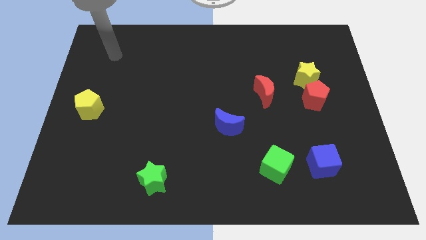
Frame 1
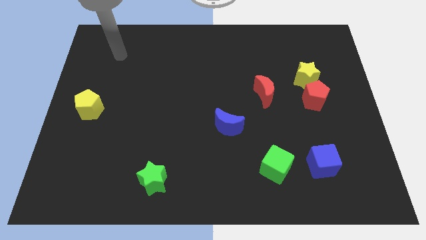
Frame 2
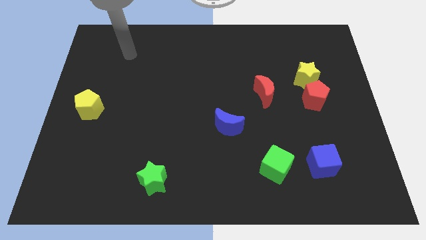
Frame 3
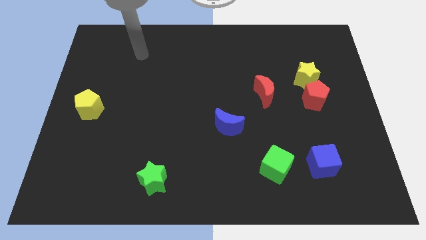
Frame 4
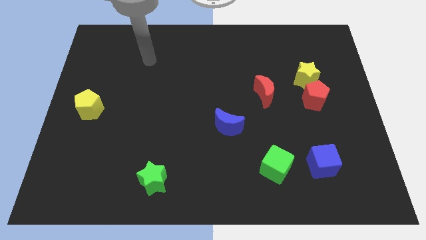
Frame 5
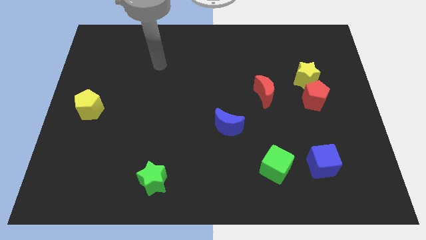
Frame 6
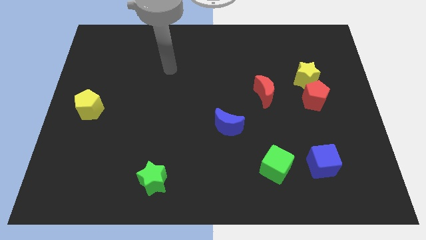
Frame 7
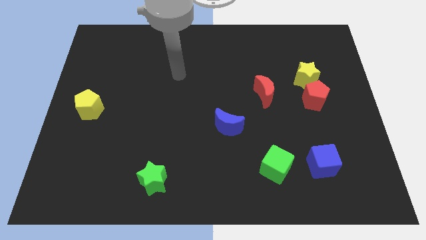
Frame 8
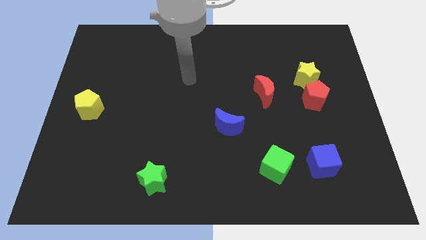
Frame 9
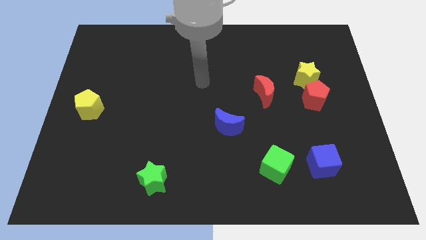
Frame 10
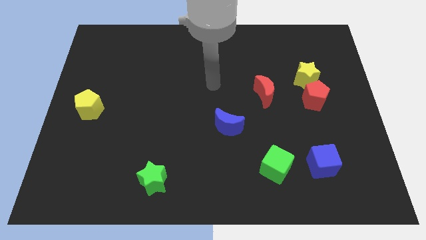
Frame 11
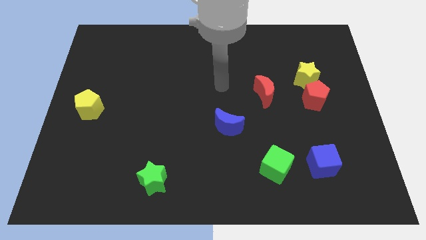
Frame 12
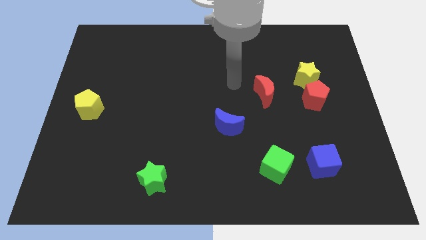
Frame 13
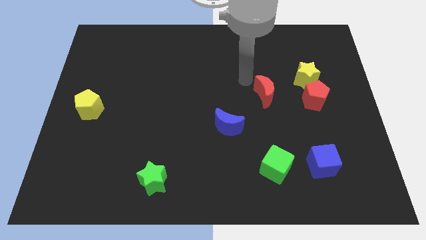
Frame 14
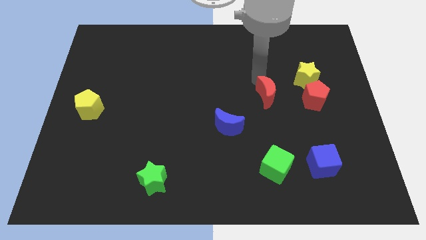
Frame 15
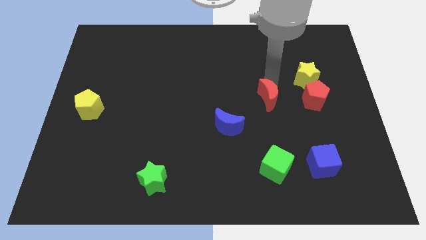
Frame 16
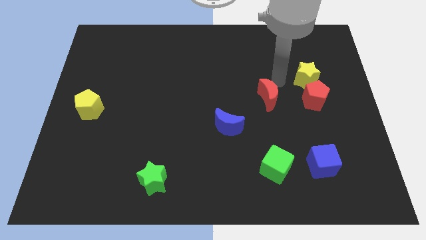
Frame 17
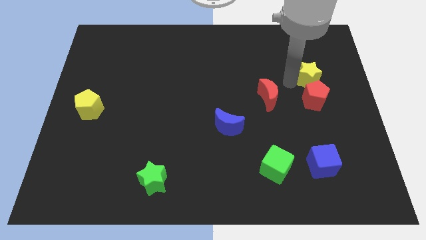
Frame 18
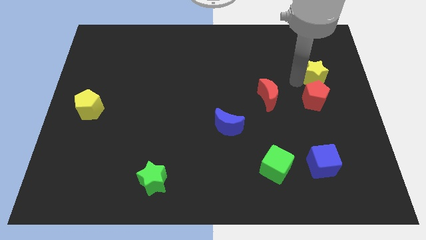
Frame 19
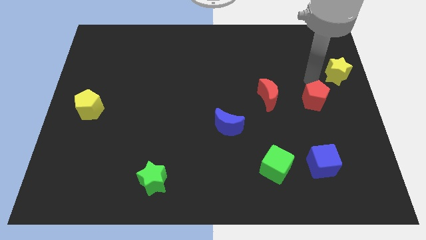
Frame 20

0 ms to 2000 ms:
pull the red pentagon apart from the yellow star

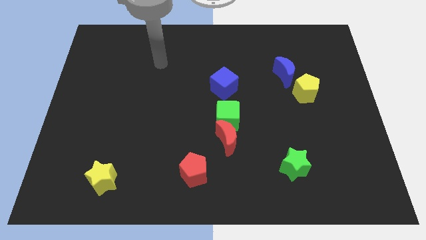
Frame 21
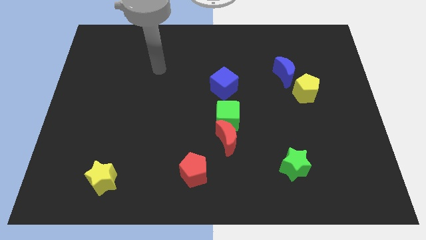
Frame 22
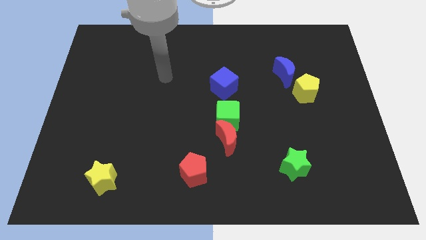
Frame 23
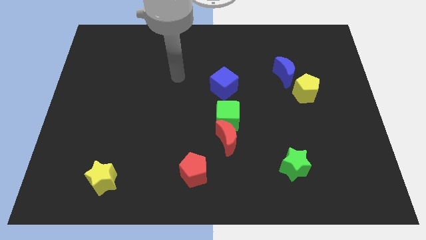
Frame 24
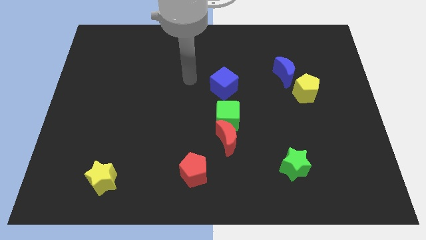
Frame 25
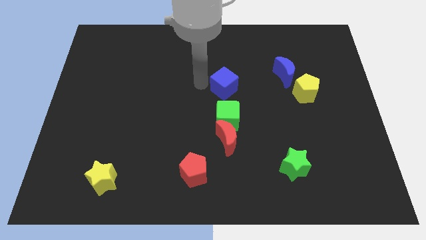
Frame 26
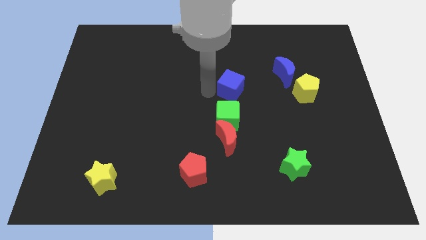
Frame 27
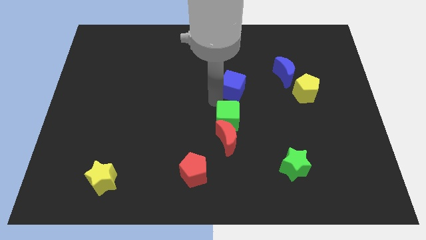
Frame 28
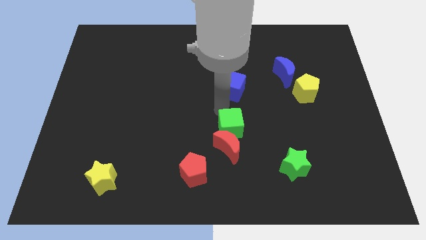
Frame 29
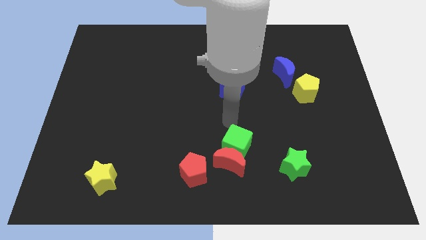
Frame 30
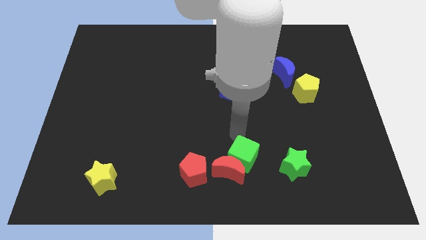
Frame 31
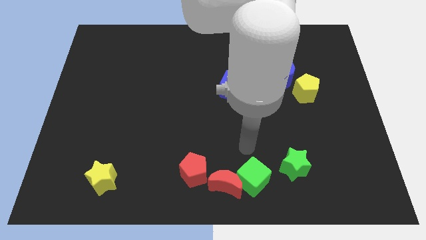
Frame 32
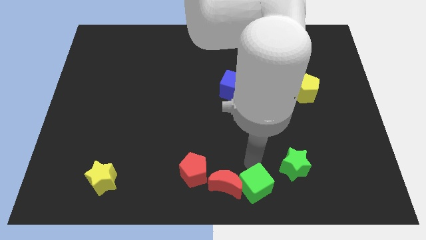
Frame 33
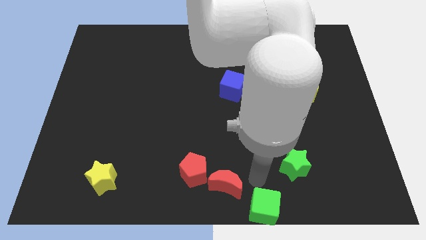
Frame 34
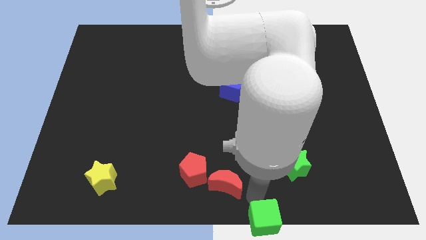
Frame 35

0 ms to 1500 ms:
separate the red moon from the green cube

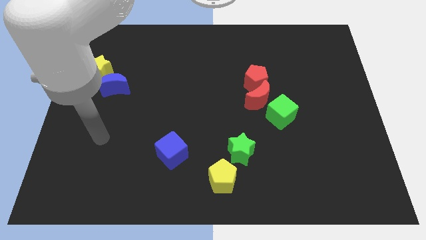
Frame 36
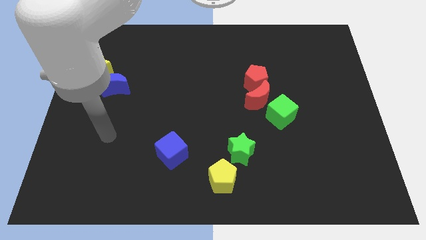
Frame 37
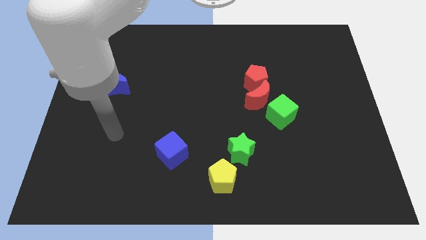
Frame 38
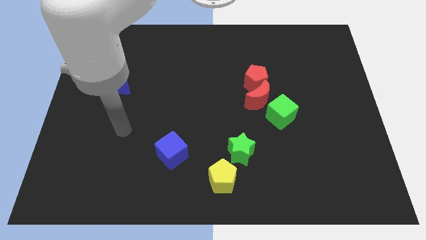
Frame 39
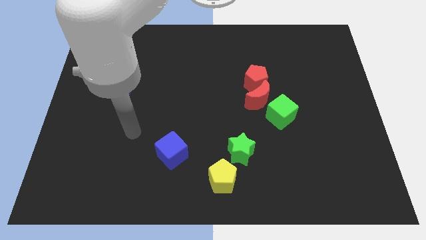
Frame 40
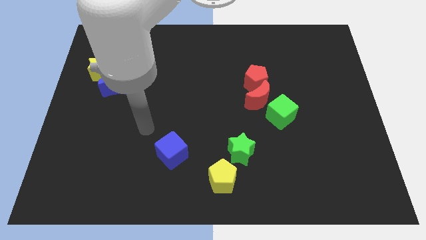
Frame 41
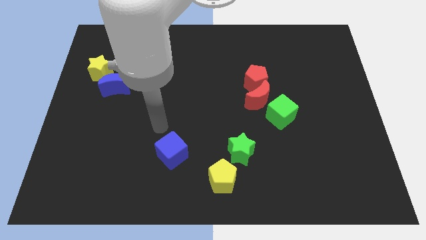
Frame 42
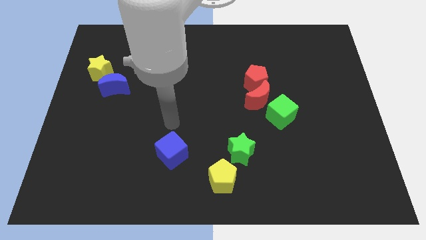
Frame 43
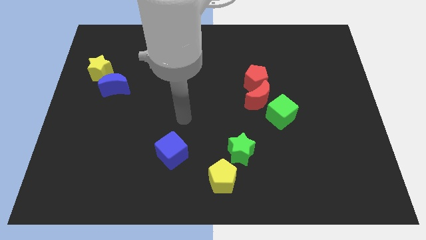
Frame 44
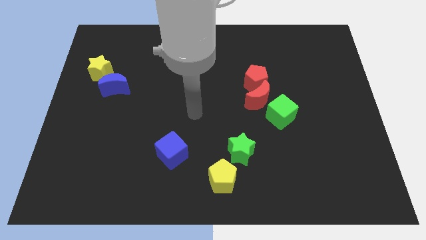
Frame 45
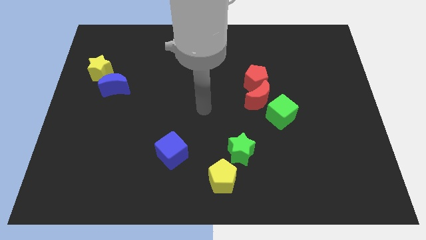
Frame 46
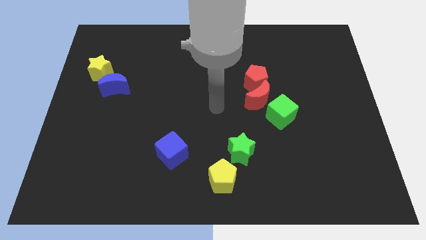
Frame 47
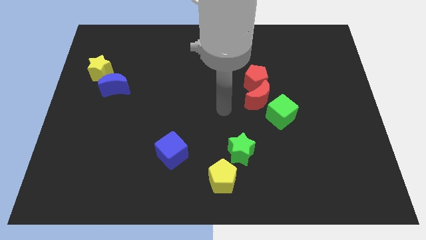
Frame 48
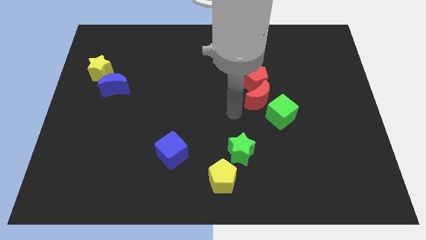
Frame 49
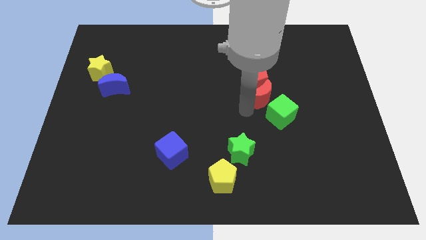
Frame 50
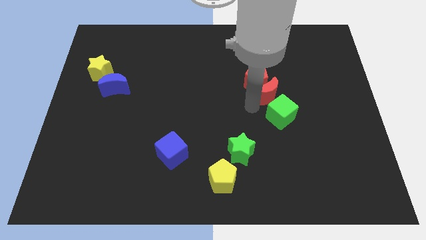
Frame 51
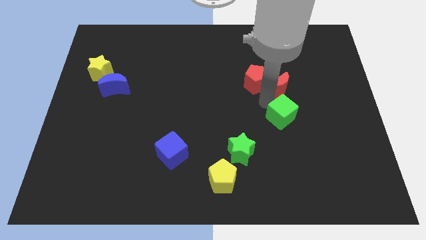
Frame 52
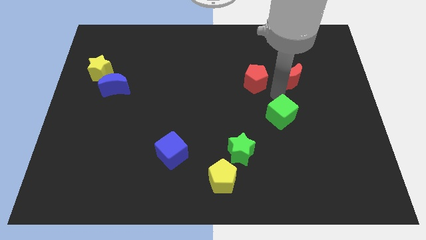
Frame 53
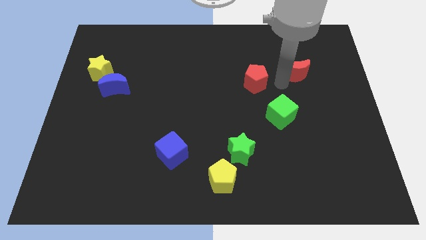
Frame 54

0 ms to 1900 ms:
separate the red pentagon from the red moon

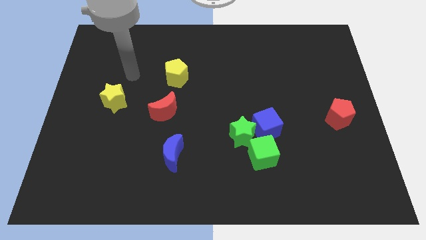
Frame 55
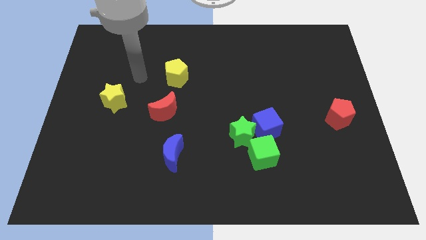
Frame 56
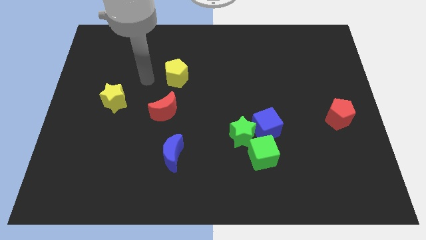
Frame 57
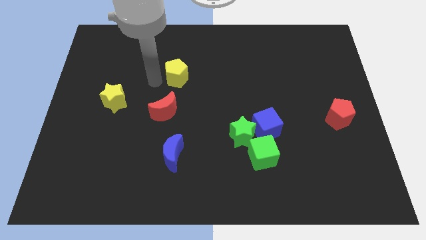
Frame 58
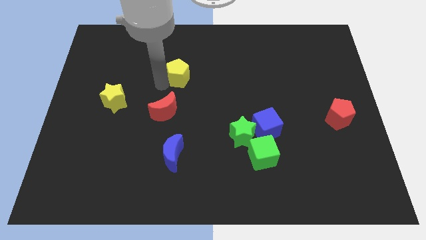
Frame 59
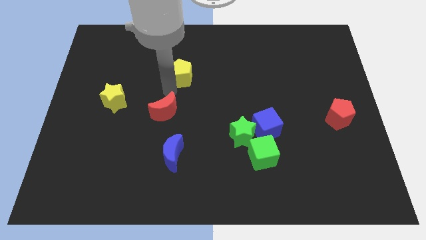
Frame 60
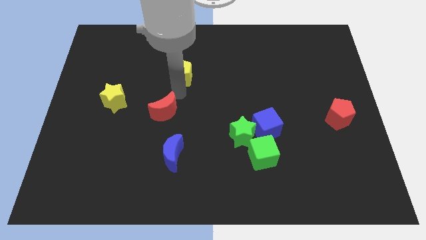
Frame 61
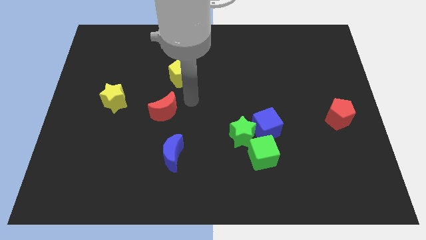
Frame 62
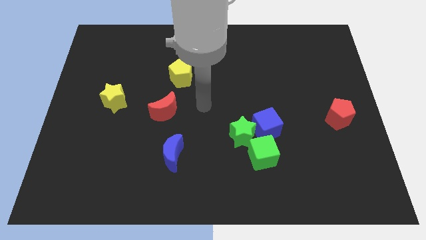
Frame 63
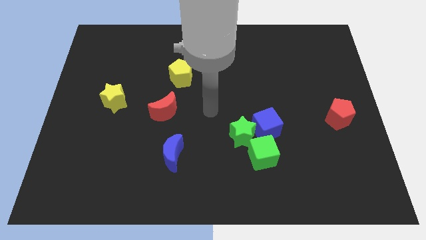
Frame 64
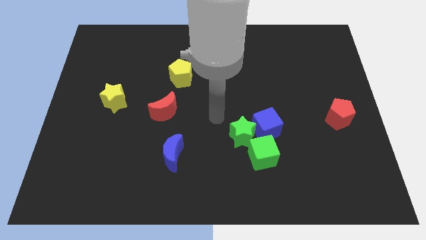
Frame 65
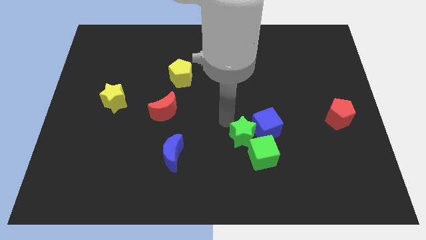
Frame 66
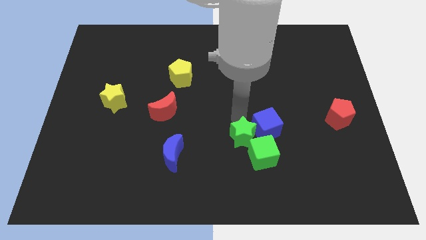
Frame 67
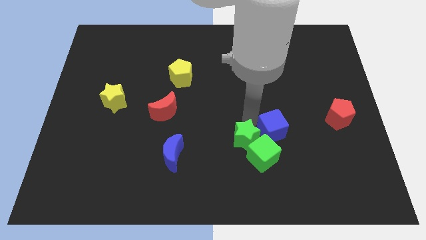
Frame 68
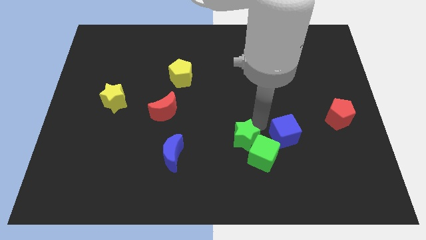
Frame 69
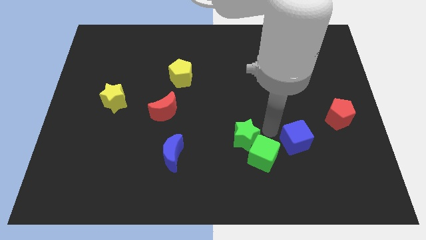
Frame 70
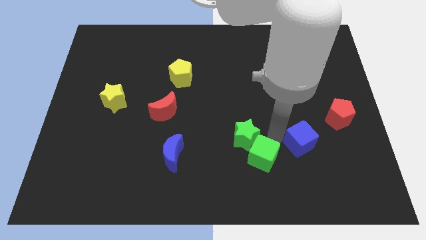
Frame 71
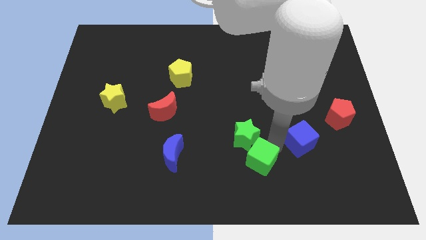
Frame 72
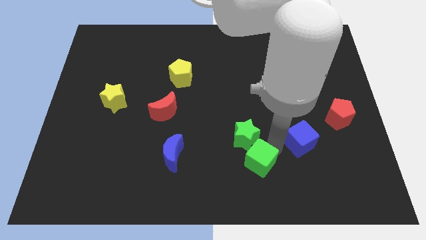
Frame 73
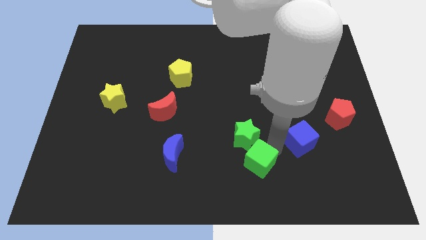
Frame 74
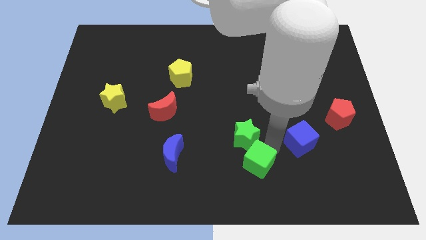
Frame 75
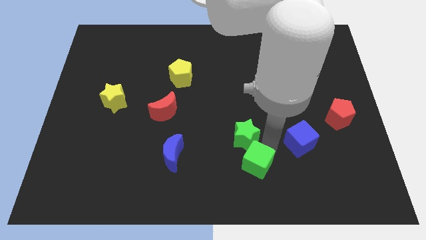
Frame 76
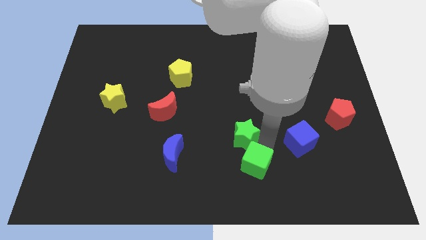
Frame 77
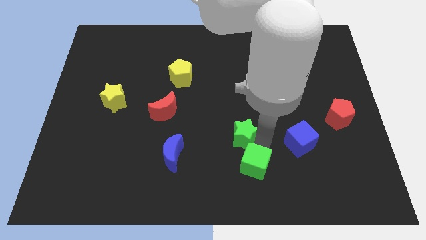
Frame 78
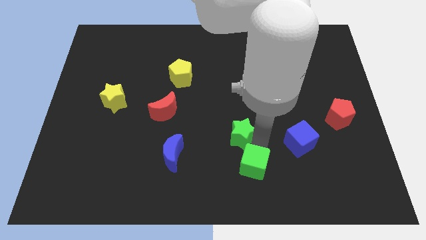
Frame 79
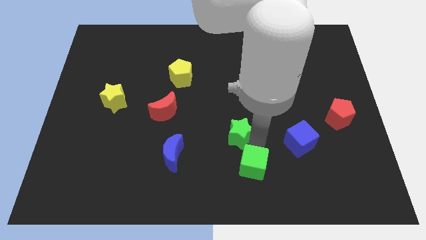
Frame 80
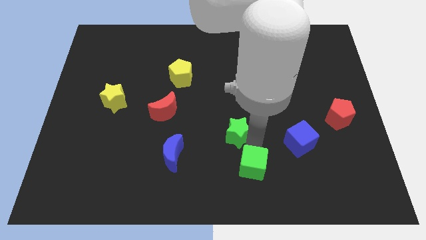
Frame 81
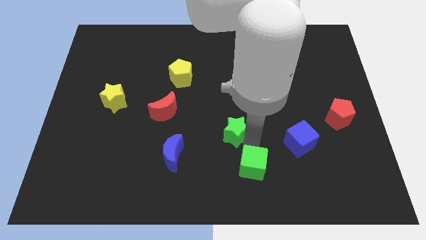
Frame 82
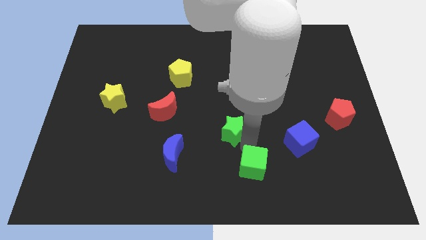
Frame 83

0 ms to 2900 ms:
move the green star away from the blue cube and green cube

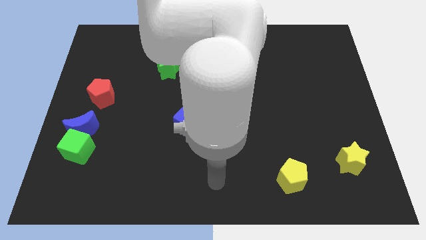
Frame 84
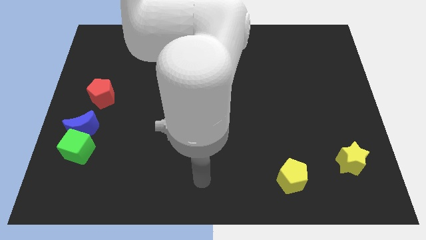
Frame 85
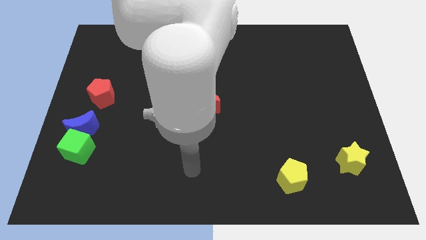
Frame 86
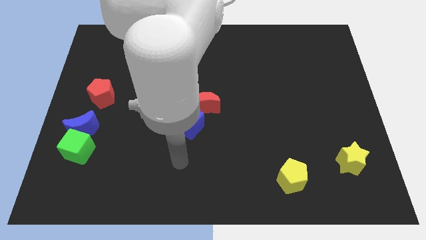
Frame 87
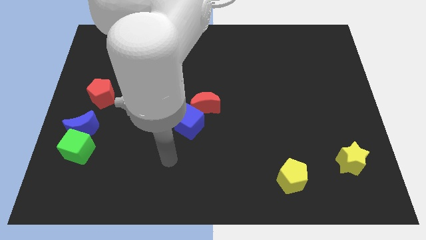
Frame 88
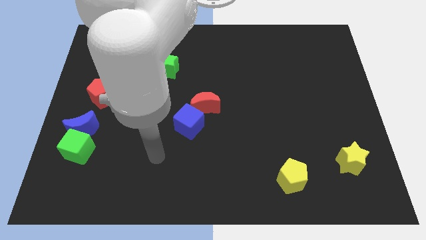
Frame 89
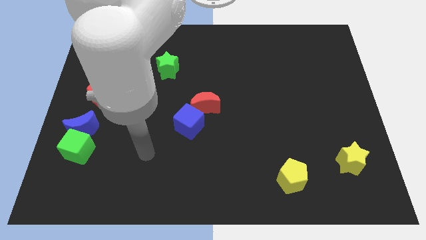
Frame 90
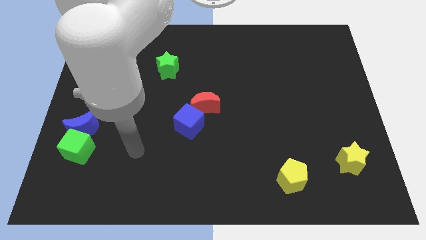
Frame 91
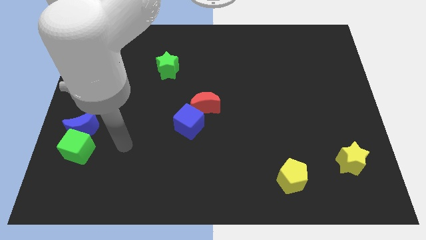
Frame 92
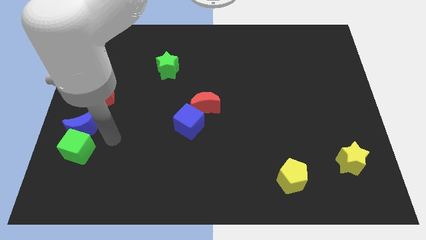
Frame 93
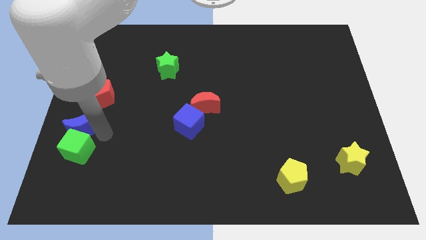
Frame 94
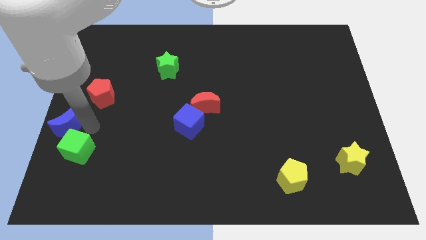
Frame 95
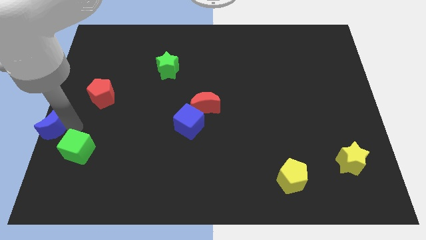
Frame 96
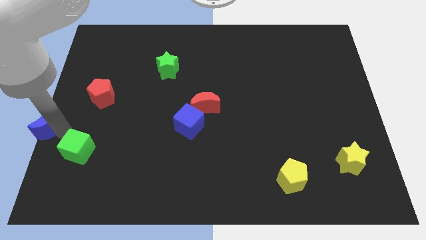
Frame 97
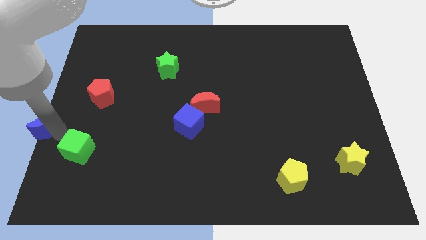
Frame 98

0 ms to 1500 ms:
separate the green cube from the blue moon
